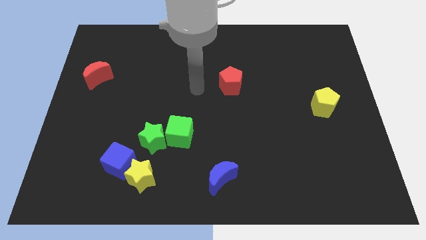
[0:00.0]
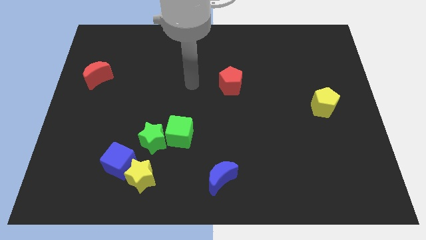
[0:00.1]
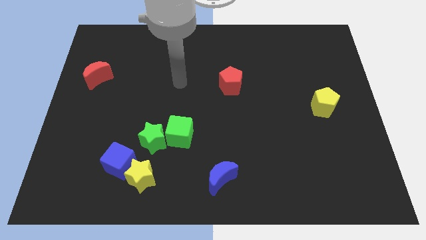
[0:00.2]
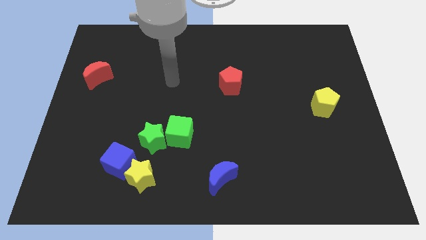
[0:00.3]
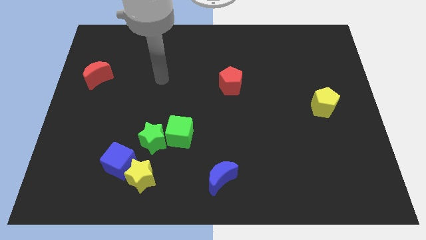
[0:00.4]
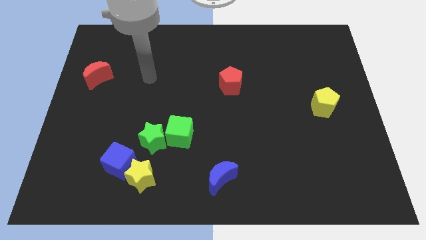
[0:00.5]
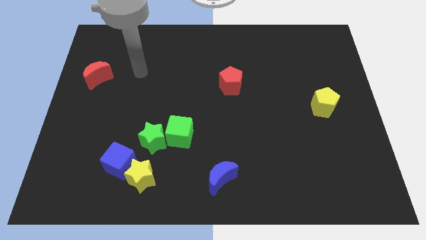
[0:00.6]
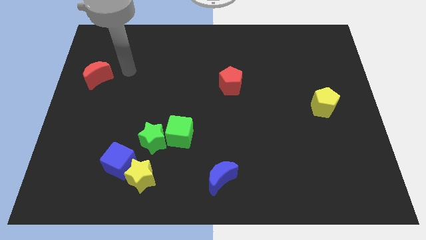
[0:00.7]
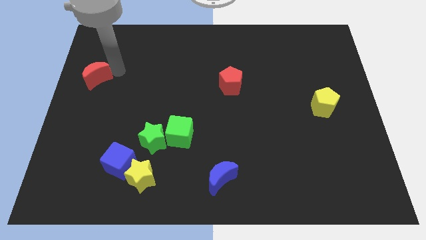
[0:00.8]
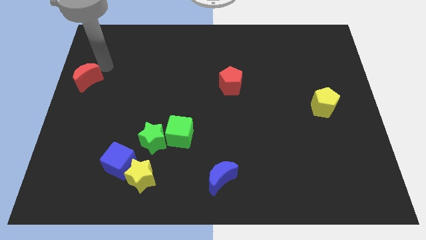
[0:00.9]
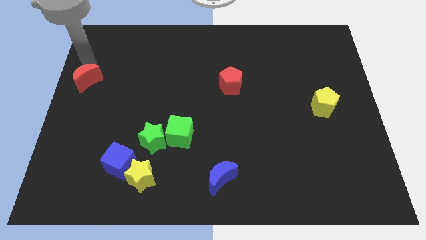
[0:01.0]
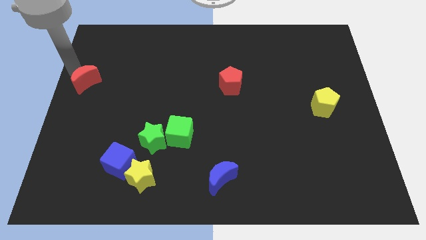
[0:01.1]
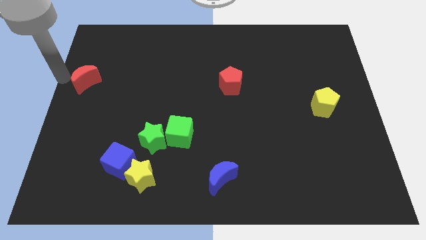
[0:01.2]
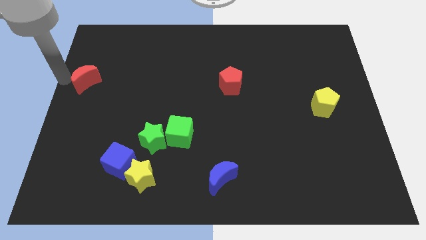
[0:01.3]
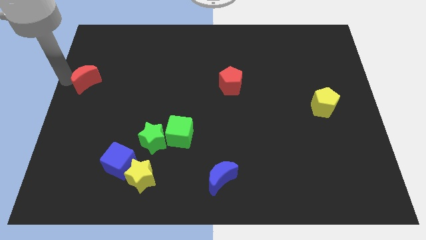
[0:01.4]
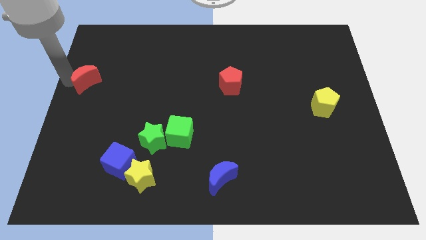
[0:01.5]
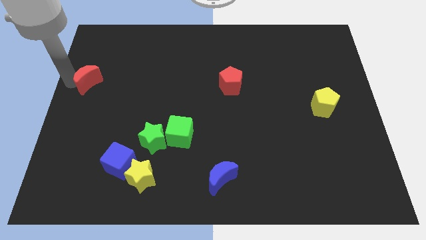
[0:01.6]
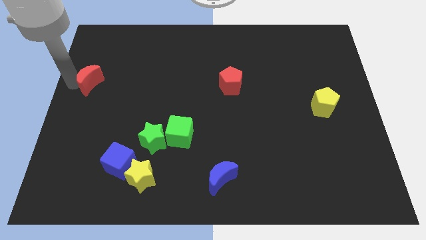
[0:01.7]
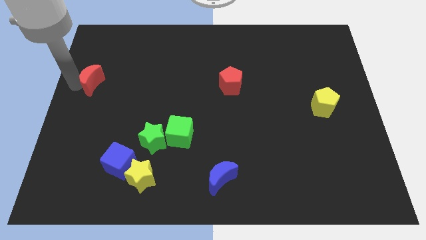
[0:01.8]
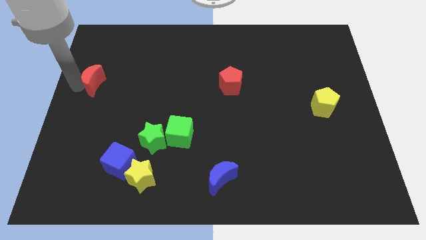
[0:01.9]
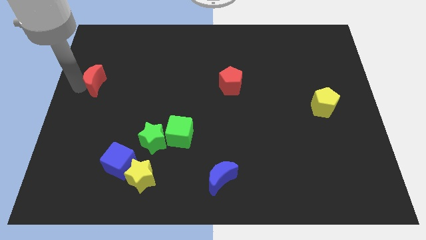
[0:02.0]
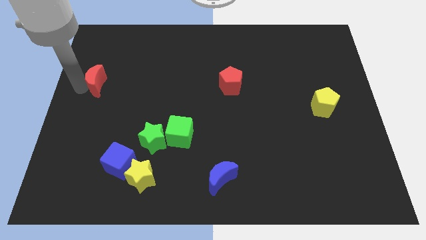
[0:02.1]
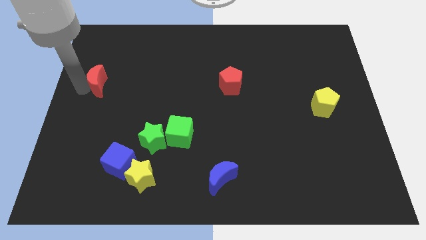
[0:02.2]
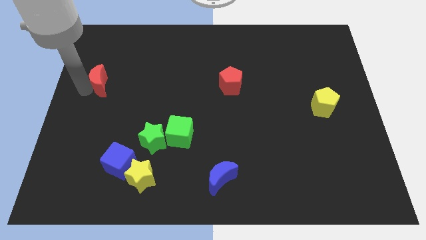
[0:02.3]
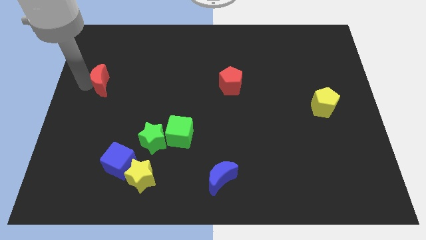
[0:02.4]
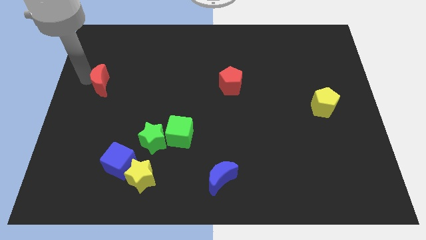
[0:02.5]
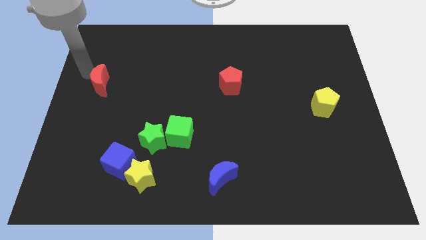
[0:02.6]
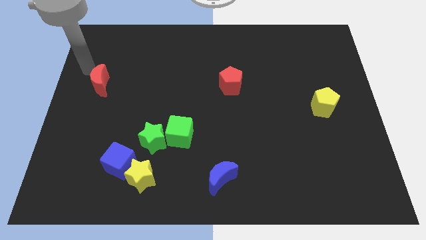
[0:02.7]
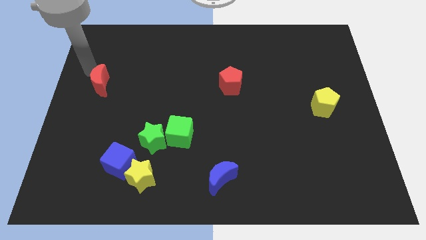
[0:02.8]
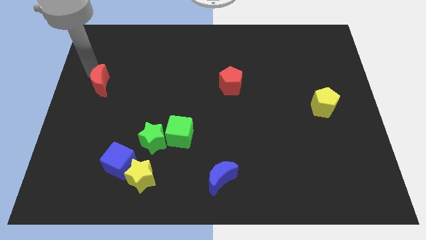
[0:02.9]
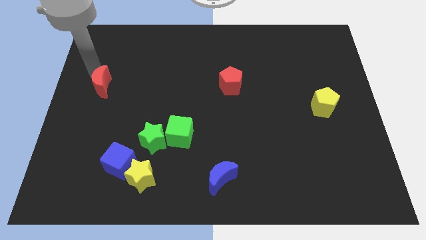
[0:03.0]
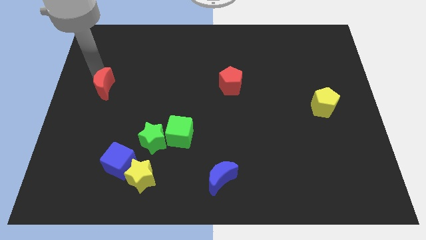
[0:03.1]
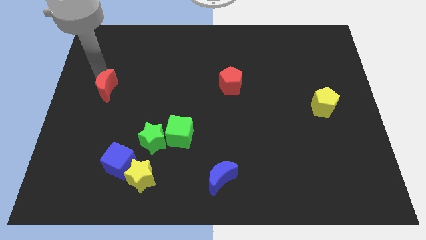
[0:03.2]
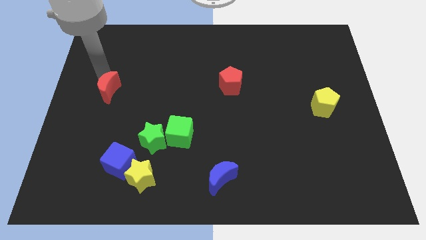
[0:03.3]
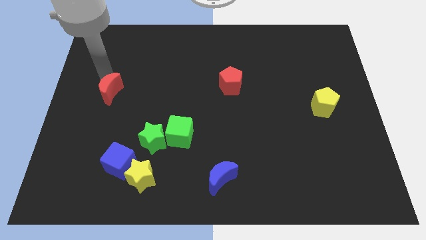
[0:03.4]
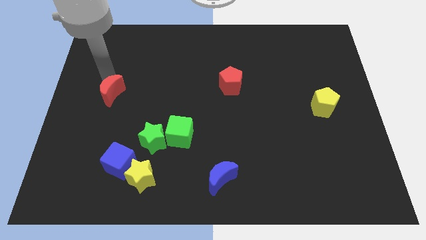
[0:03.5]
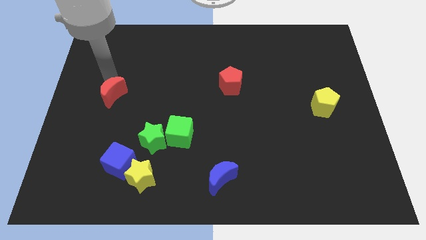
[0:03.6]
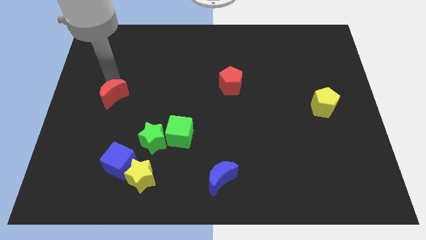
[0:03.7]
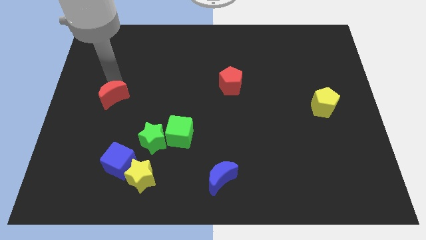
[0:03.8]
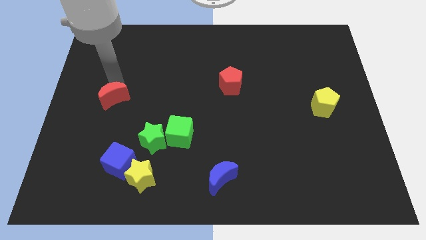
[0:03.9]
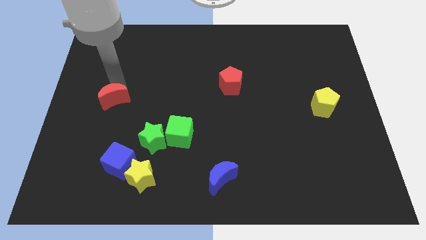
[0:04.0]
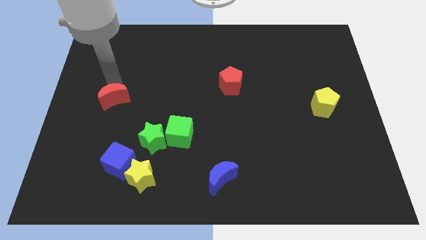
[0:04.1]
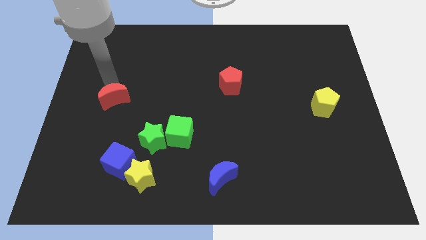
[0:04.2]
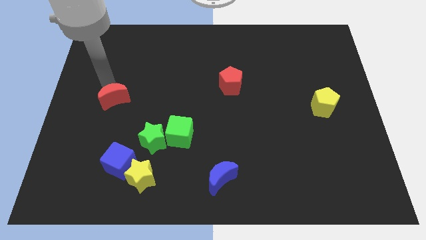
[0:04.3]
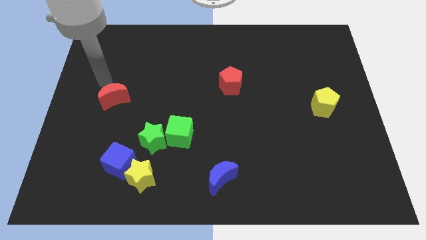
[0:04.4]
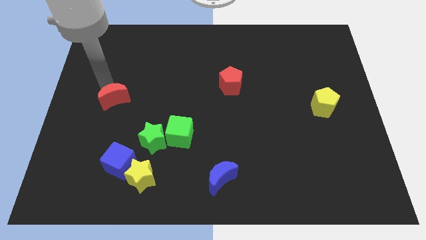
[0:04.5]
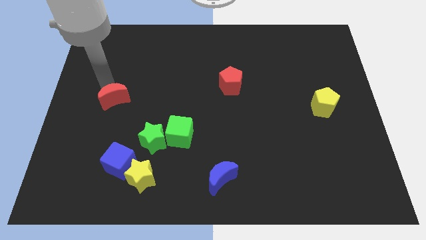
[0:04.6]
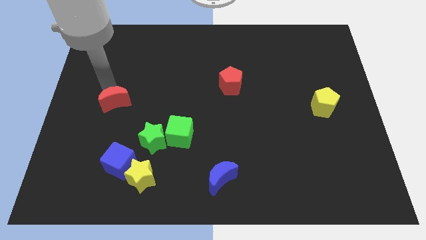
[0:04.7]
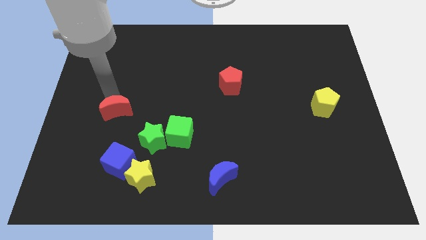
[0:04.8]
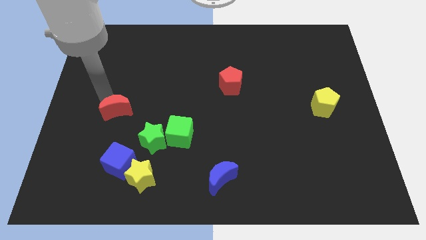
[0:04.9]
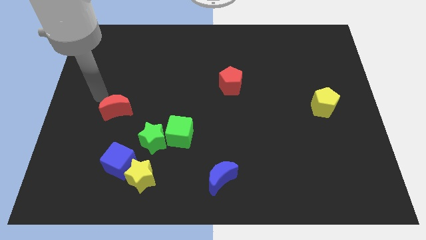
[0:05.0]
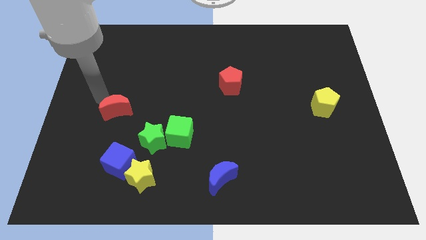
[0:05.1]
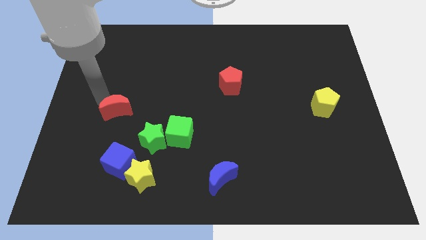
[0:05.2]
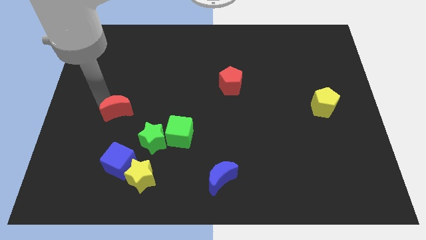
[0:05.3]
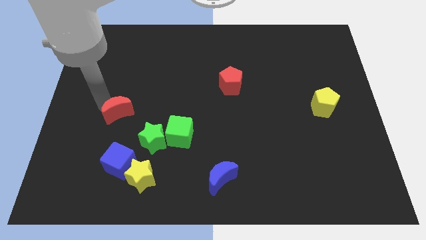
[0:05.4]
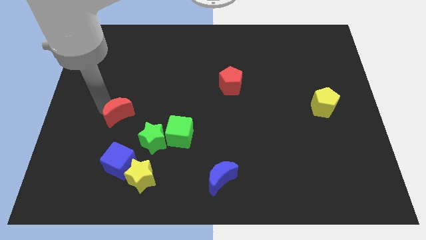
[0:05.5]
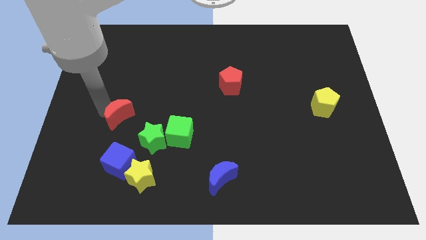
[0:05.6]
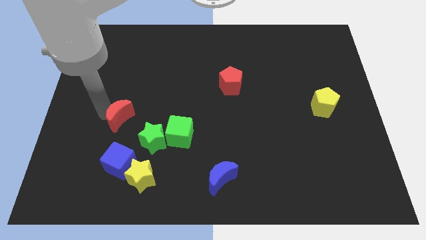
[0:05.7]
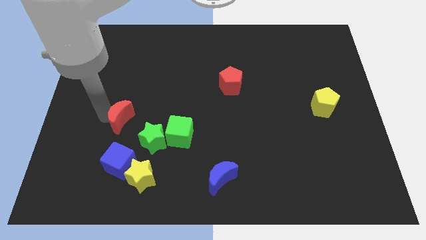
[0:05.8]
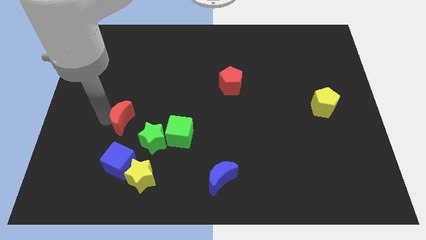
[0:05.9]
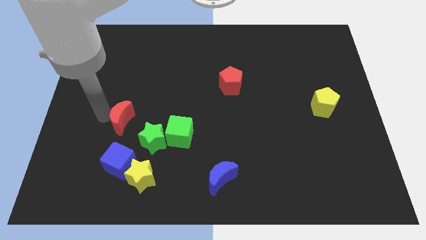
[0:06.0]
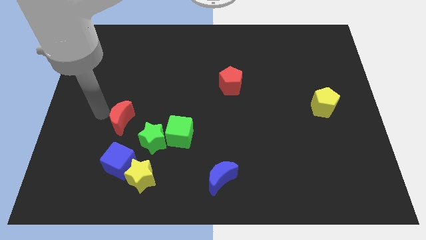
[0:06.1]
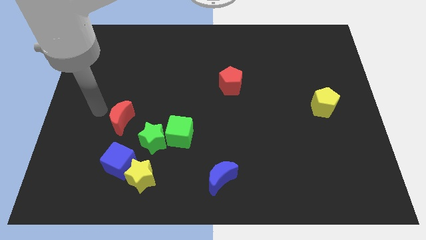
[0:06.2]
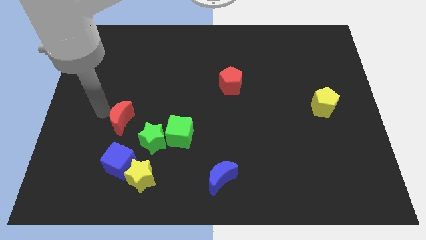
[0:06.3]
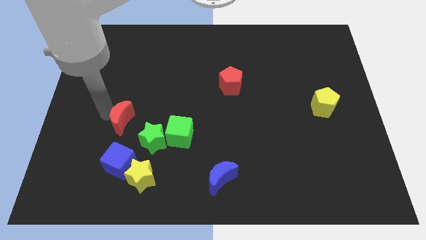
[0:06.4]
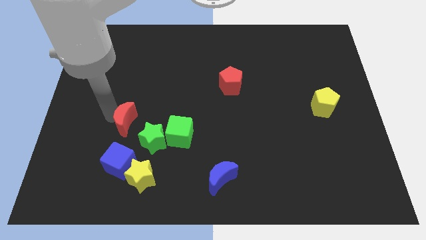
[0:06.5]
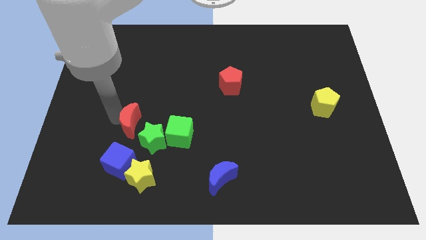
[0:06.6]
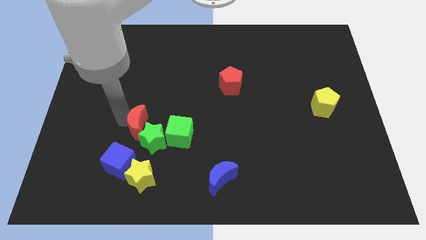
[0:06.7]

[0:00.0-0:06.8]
move the red moon close to the green star
